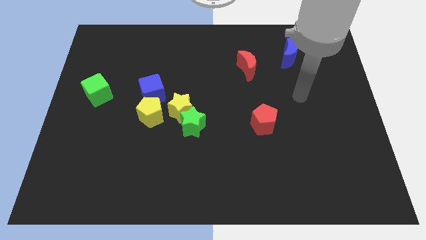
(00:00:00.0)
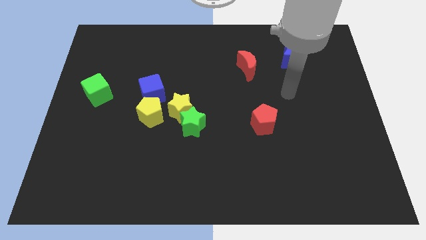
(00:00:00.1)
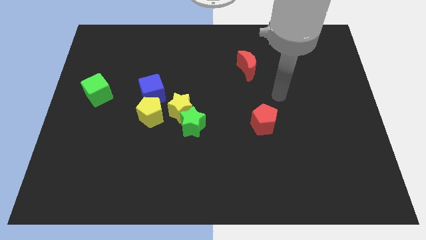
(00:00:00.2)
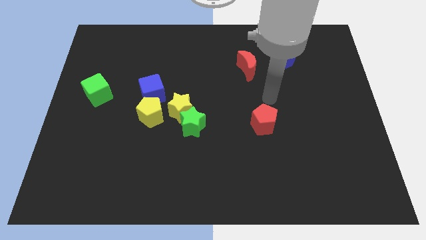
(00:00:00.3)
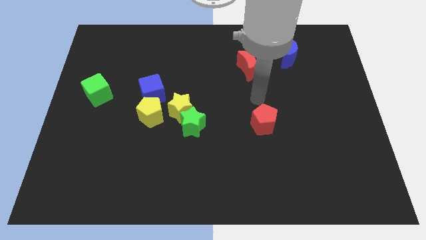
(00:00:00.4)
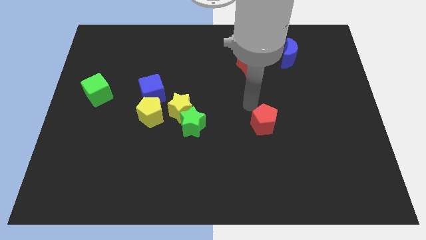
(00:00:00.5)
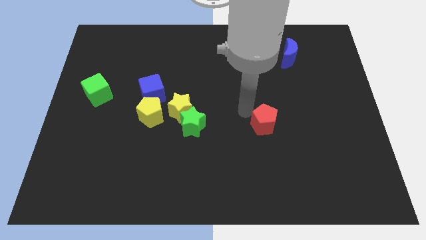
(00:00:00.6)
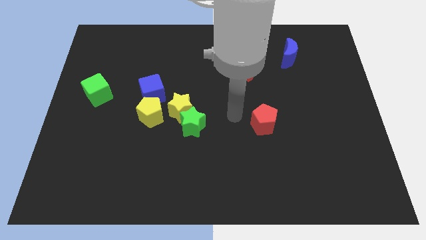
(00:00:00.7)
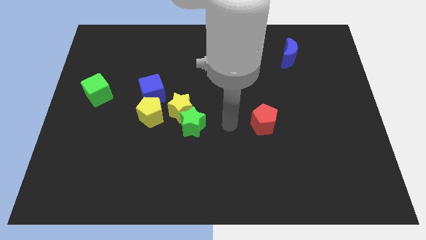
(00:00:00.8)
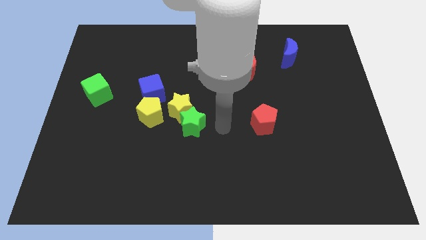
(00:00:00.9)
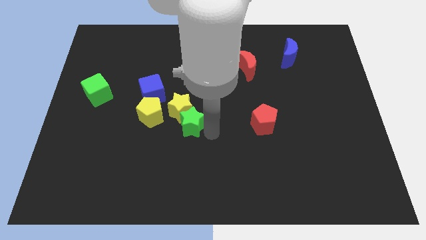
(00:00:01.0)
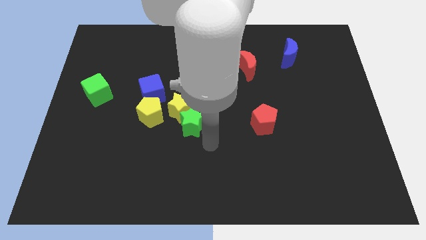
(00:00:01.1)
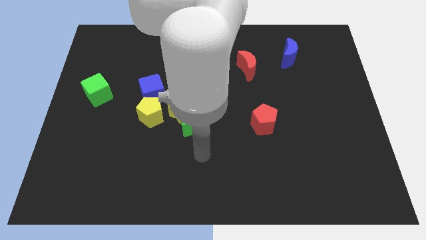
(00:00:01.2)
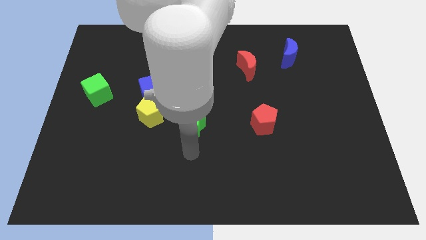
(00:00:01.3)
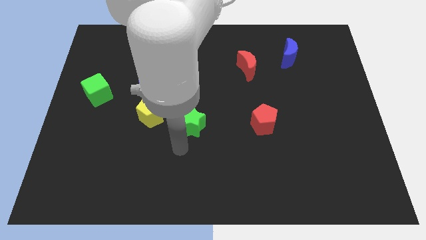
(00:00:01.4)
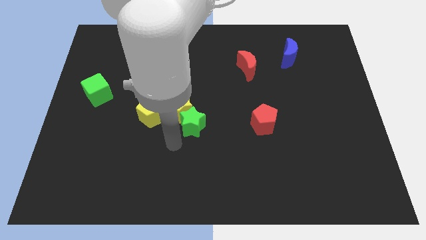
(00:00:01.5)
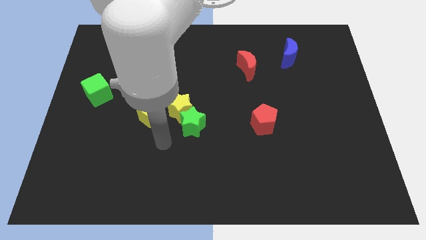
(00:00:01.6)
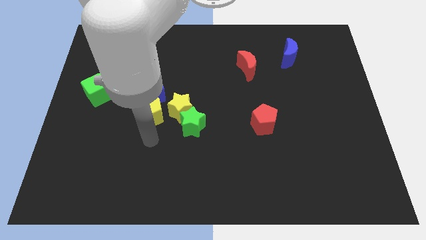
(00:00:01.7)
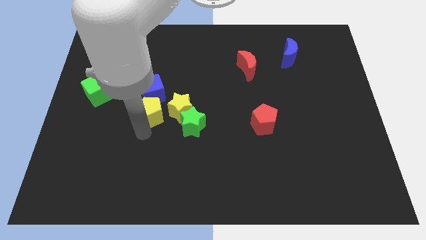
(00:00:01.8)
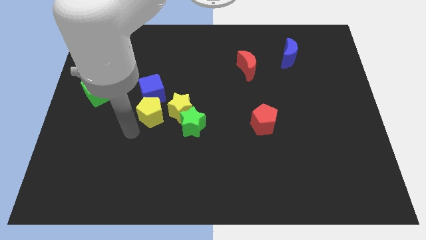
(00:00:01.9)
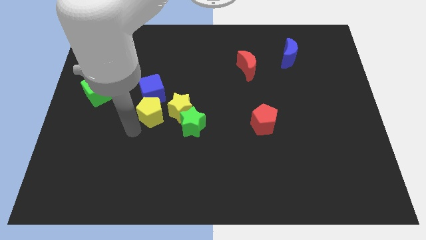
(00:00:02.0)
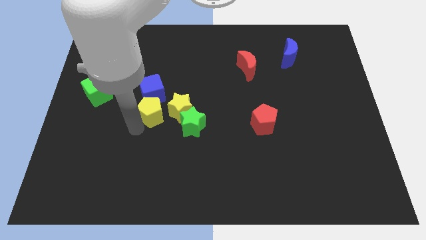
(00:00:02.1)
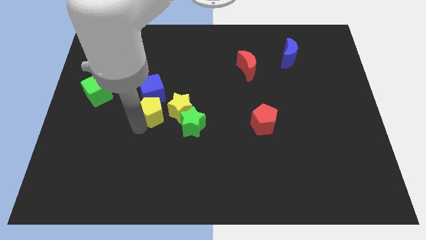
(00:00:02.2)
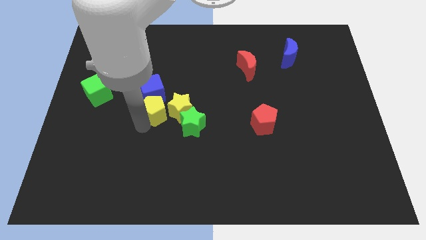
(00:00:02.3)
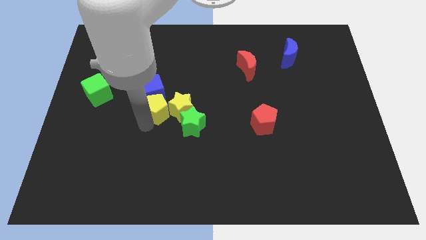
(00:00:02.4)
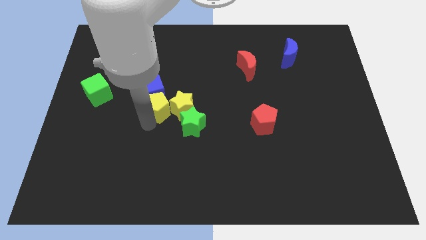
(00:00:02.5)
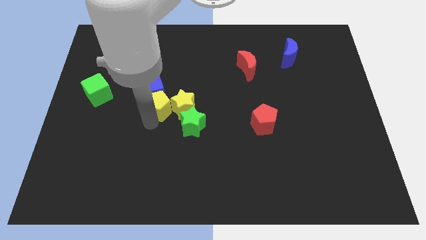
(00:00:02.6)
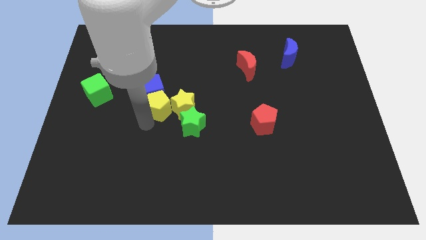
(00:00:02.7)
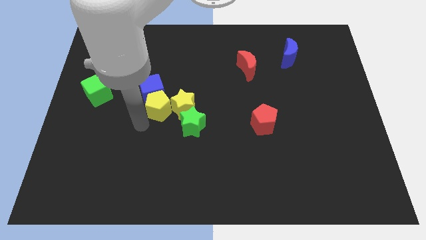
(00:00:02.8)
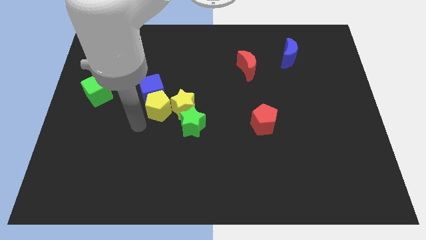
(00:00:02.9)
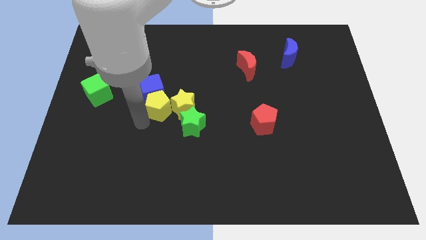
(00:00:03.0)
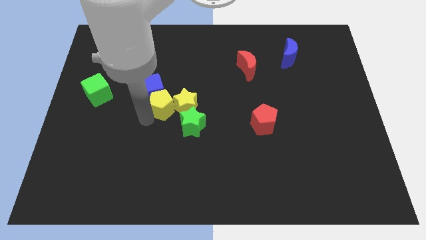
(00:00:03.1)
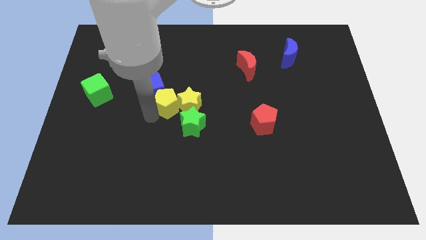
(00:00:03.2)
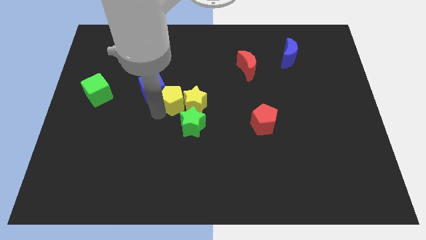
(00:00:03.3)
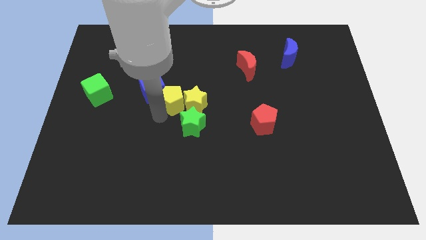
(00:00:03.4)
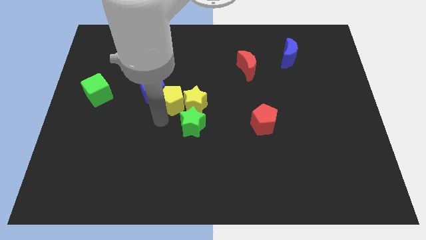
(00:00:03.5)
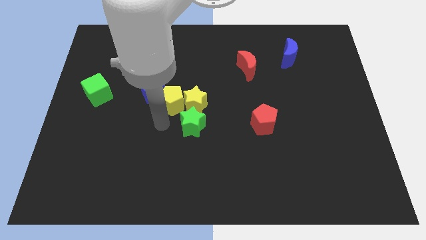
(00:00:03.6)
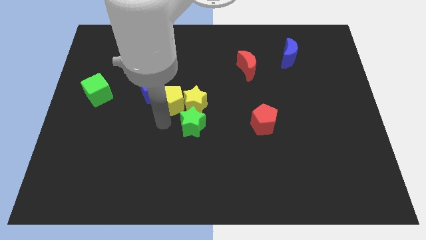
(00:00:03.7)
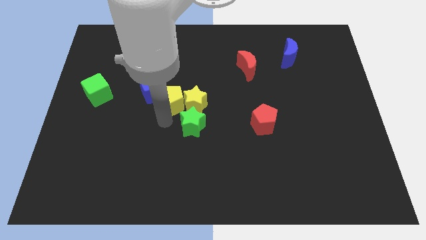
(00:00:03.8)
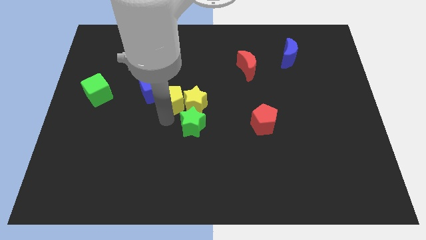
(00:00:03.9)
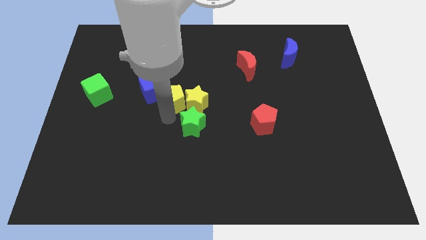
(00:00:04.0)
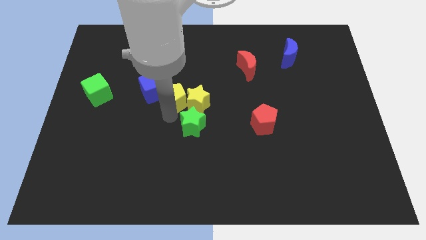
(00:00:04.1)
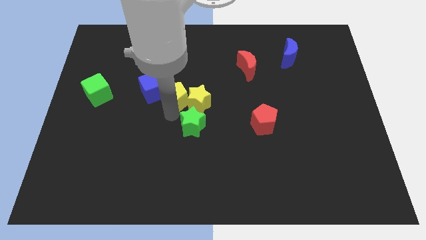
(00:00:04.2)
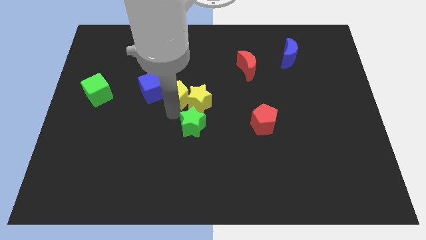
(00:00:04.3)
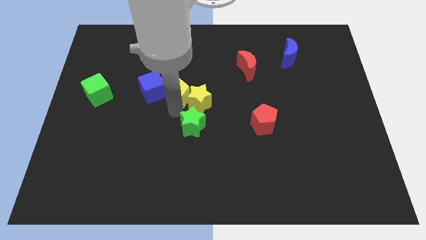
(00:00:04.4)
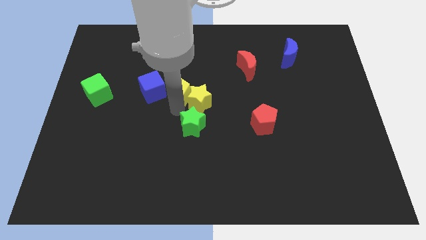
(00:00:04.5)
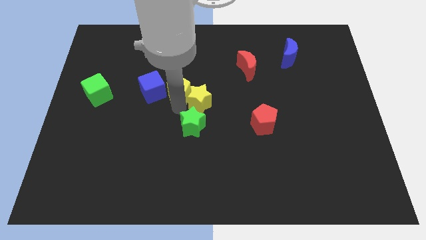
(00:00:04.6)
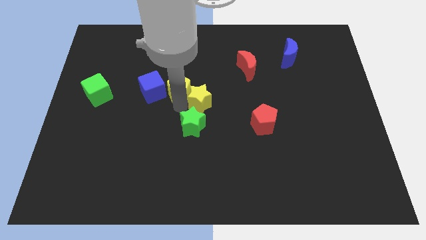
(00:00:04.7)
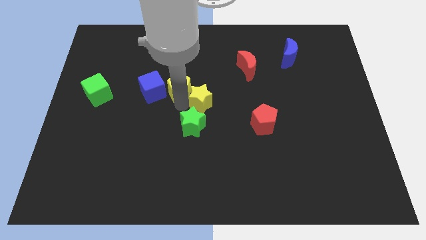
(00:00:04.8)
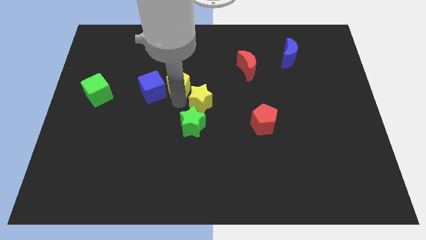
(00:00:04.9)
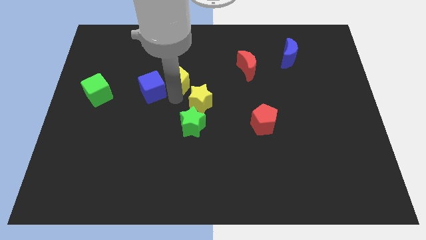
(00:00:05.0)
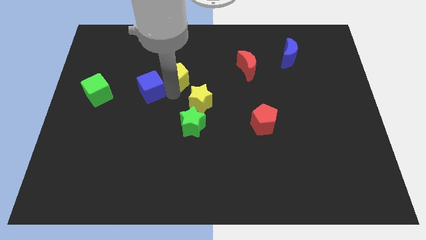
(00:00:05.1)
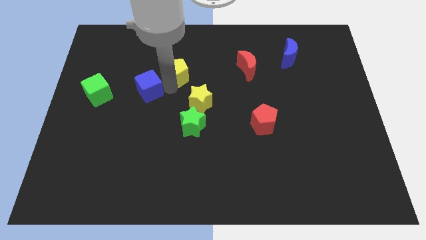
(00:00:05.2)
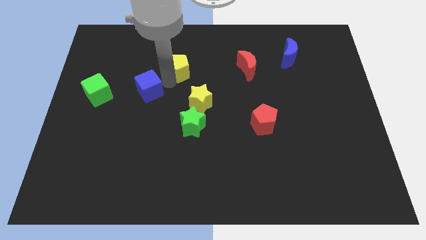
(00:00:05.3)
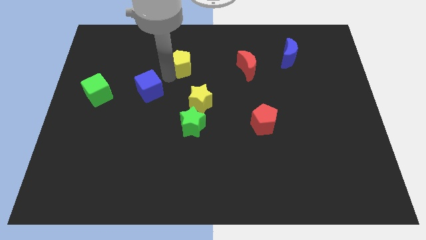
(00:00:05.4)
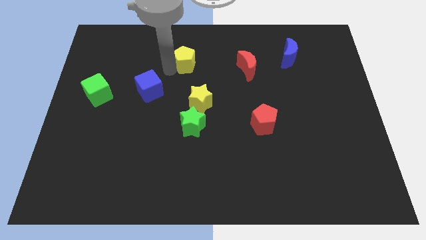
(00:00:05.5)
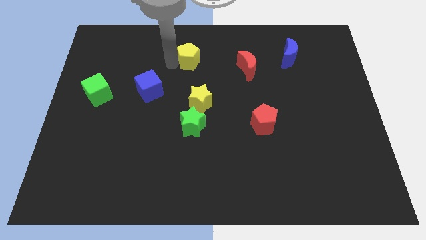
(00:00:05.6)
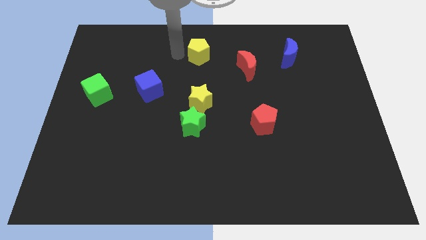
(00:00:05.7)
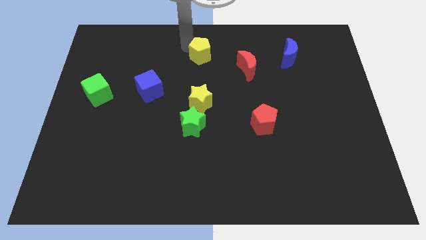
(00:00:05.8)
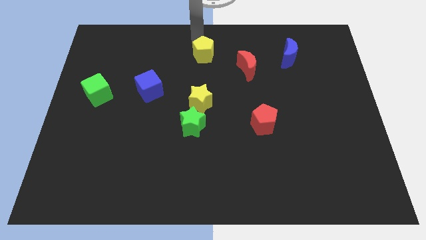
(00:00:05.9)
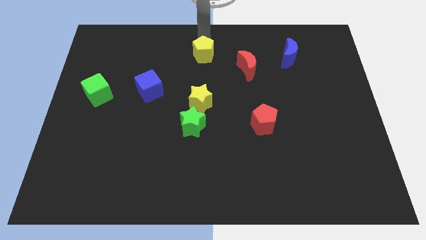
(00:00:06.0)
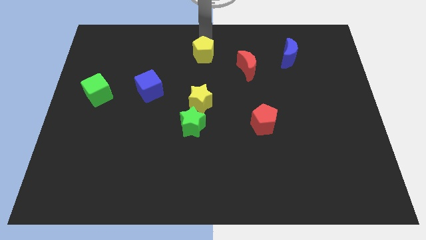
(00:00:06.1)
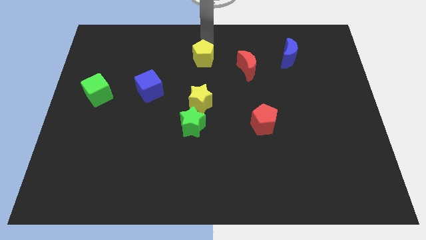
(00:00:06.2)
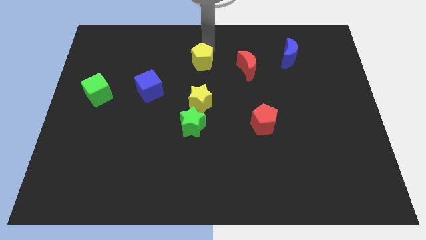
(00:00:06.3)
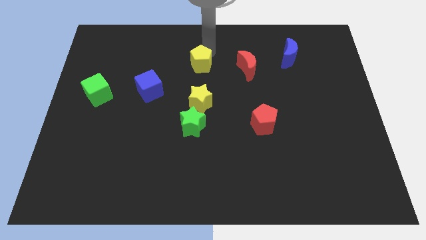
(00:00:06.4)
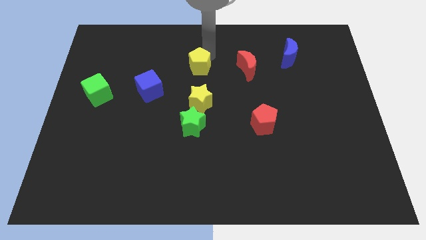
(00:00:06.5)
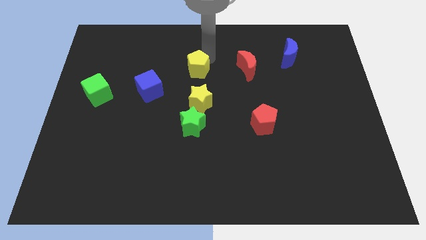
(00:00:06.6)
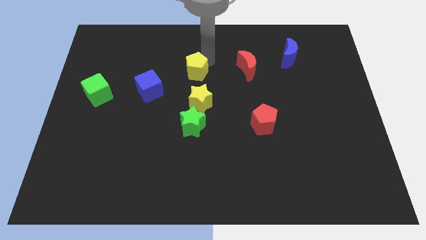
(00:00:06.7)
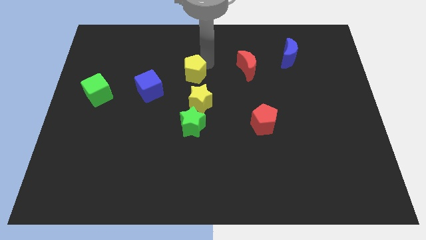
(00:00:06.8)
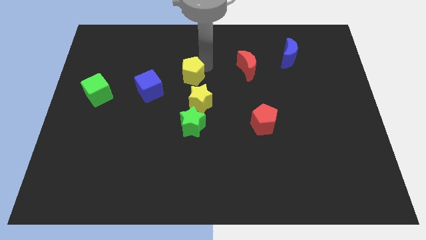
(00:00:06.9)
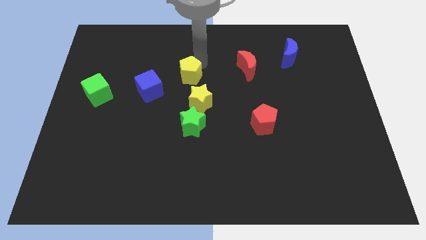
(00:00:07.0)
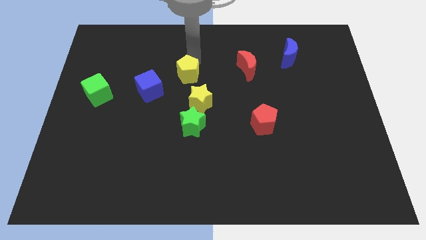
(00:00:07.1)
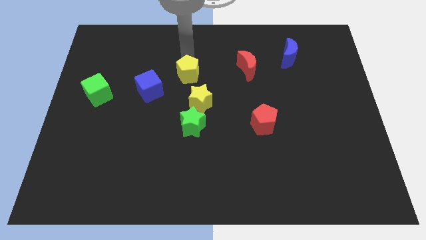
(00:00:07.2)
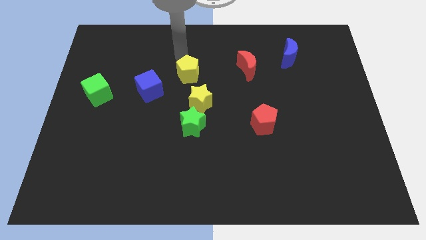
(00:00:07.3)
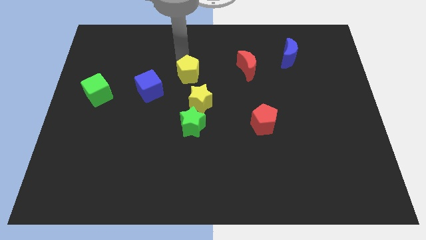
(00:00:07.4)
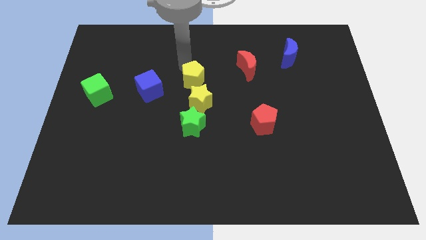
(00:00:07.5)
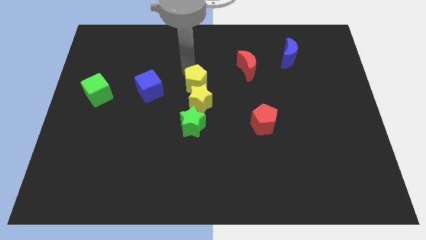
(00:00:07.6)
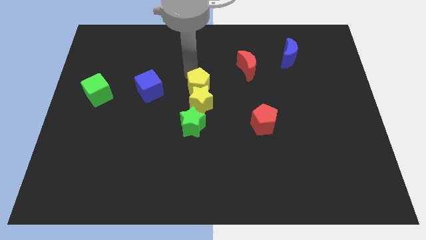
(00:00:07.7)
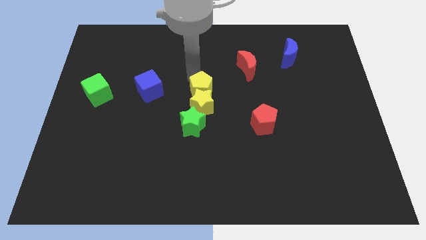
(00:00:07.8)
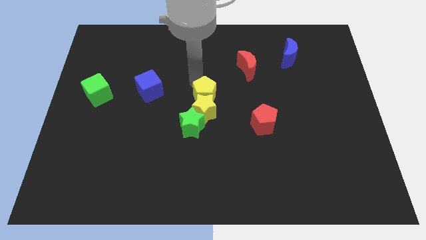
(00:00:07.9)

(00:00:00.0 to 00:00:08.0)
move the yellow pentagon diagonally up and to the right of the green star

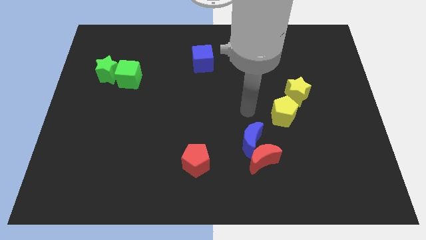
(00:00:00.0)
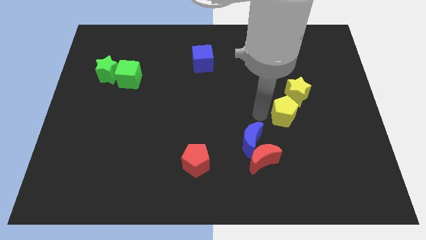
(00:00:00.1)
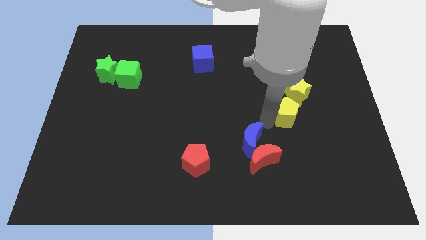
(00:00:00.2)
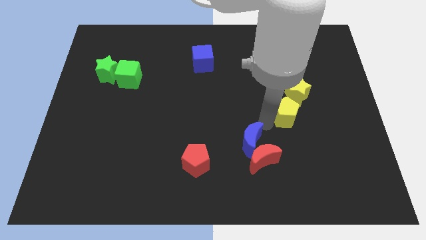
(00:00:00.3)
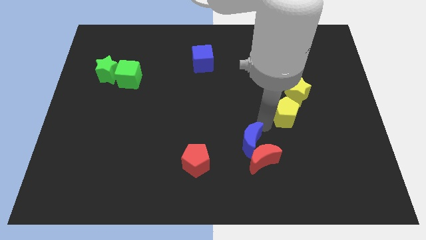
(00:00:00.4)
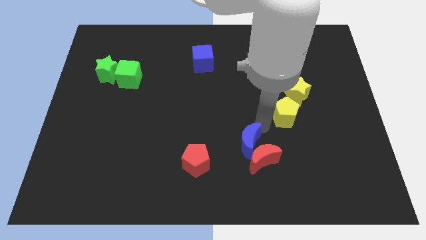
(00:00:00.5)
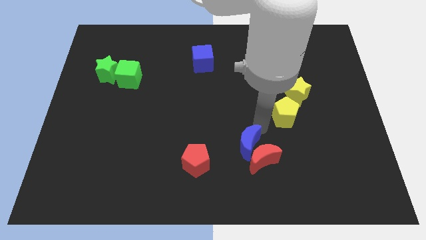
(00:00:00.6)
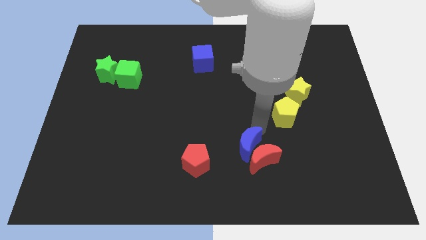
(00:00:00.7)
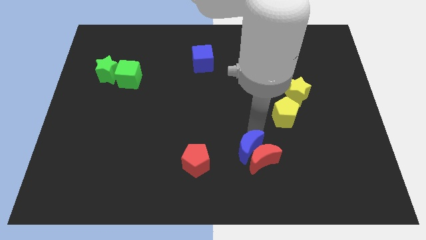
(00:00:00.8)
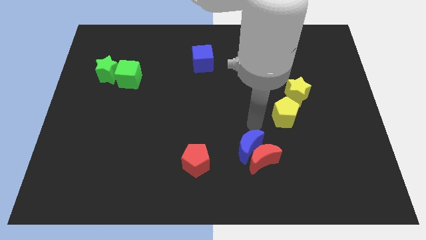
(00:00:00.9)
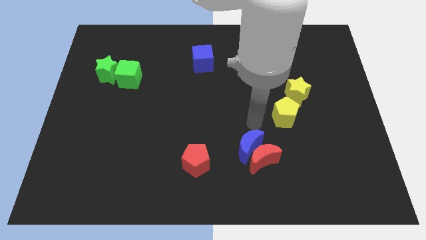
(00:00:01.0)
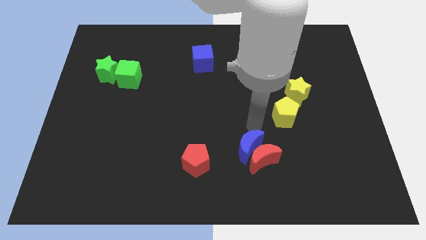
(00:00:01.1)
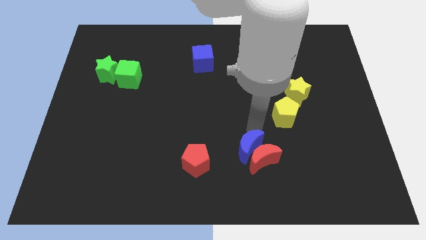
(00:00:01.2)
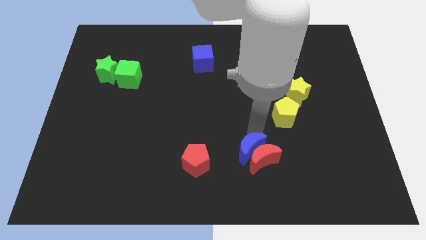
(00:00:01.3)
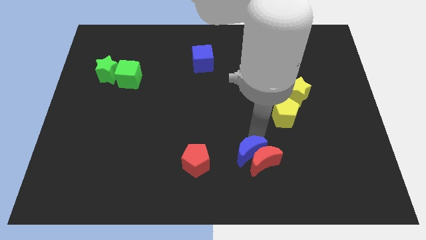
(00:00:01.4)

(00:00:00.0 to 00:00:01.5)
move the blue moon to the bottom left side of the red moon
